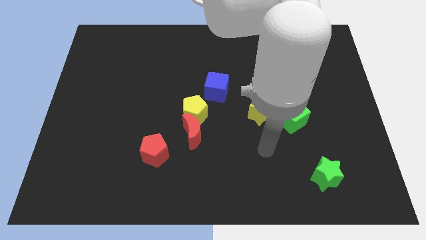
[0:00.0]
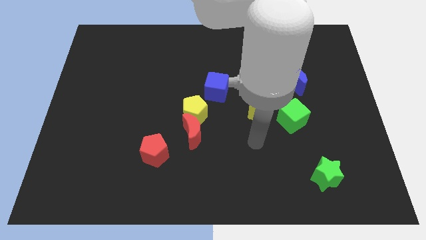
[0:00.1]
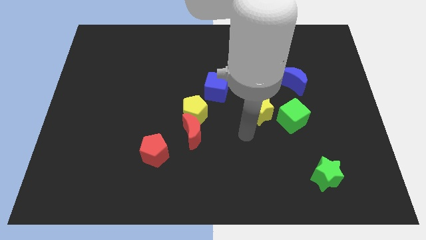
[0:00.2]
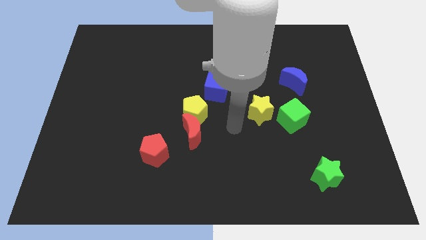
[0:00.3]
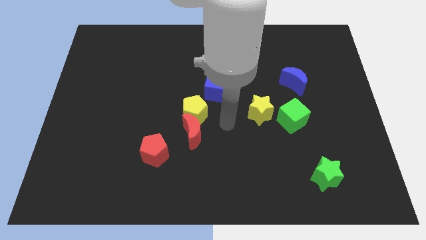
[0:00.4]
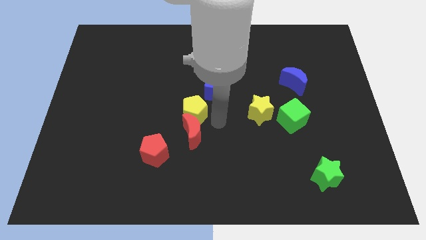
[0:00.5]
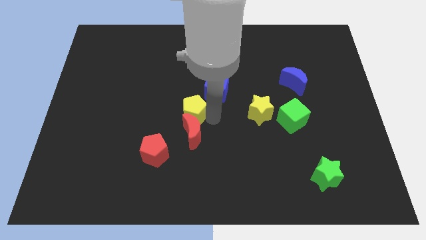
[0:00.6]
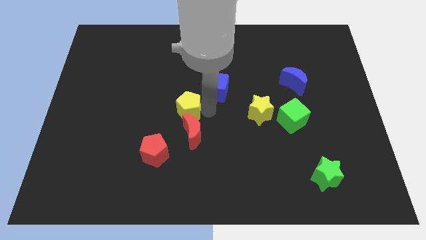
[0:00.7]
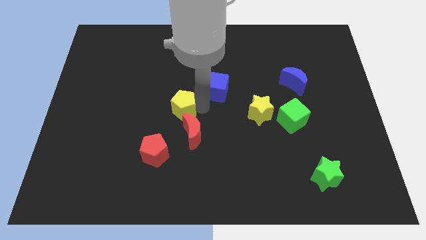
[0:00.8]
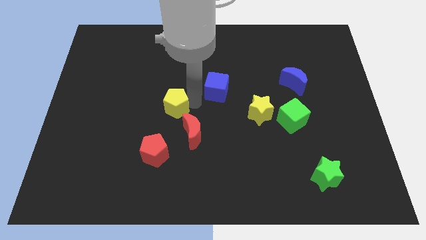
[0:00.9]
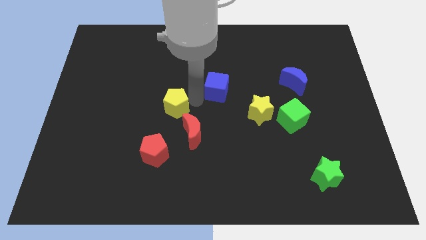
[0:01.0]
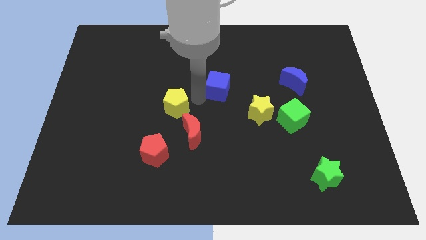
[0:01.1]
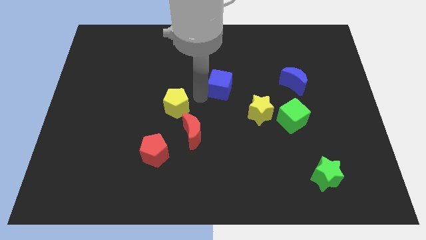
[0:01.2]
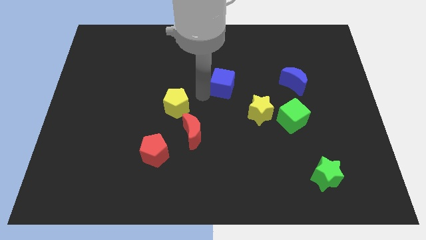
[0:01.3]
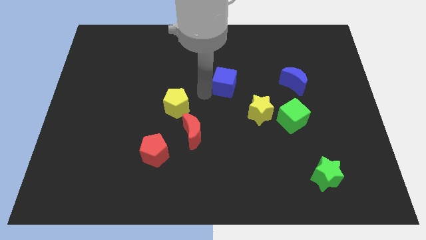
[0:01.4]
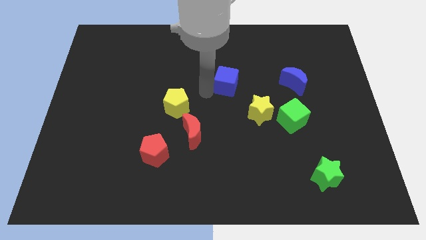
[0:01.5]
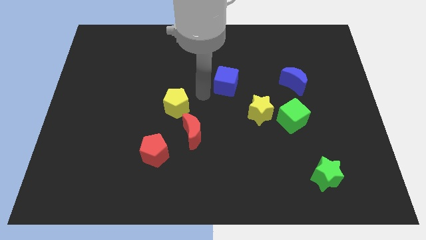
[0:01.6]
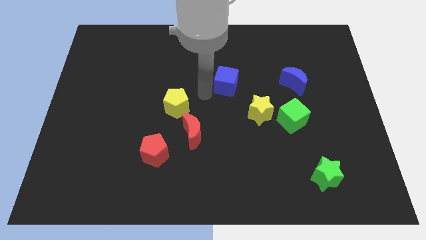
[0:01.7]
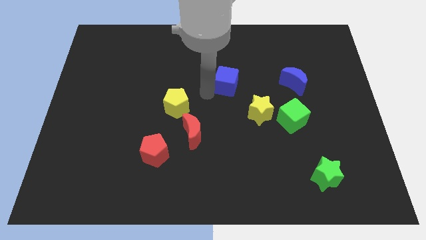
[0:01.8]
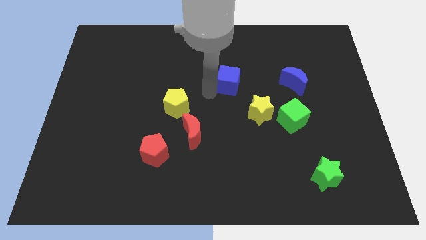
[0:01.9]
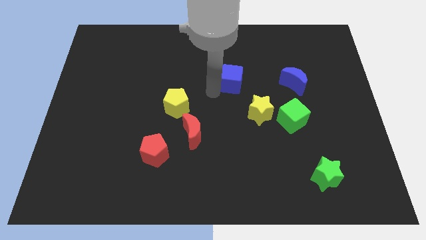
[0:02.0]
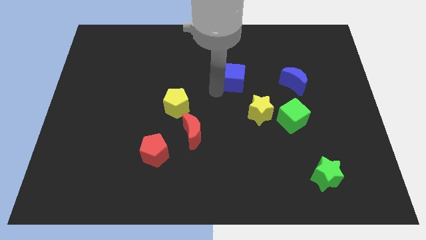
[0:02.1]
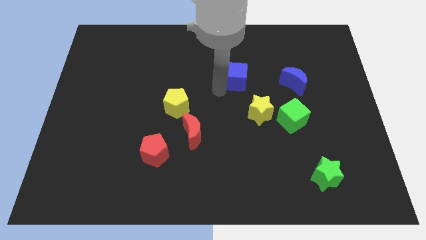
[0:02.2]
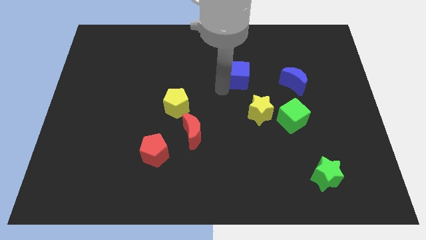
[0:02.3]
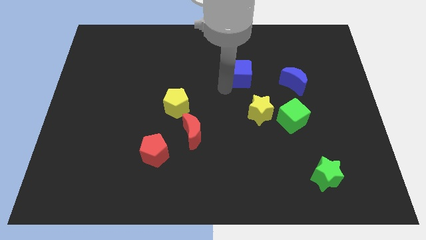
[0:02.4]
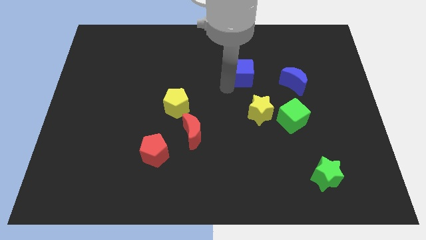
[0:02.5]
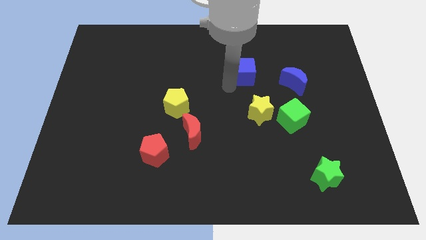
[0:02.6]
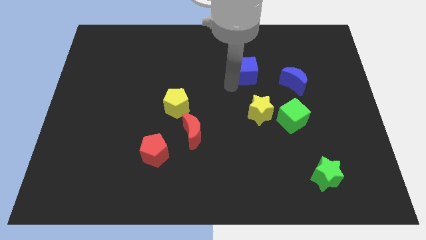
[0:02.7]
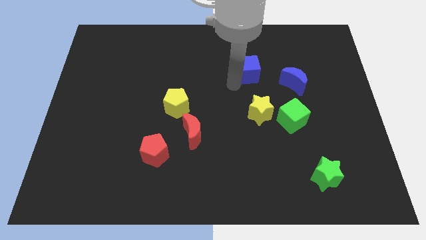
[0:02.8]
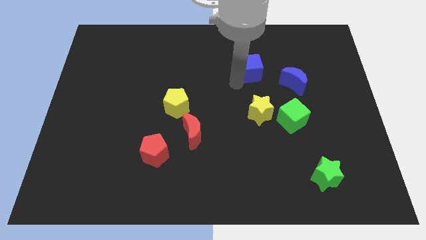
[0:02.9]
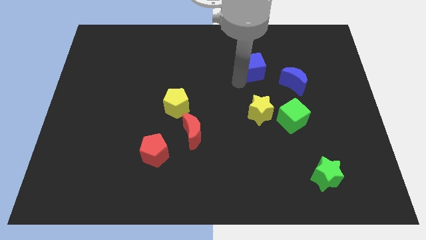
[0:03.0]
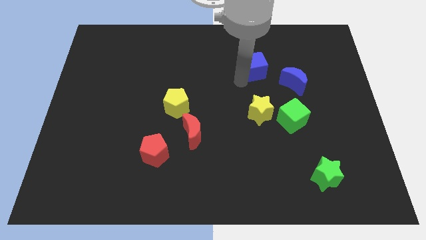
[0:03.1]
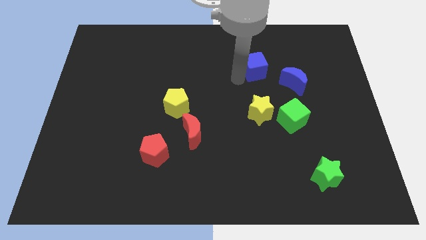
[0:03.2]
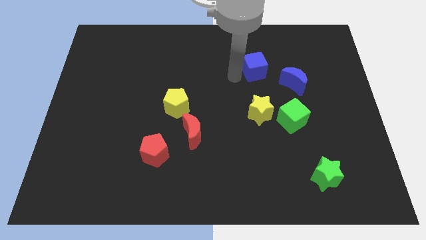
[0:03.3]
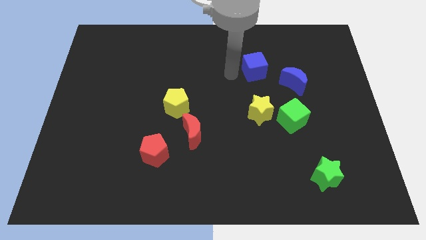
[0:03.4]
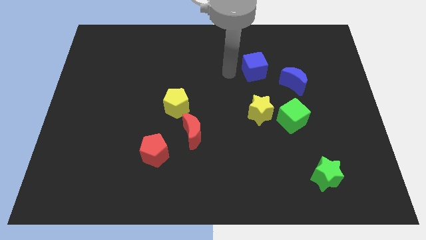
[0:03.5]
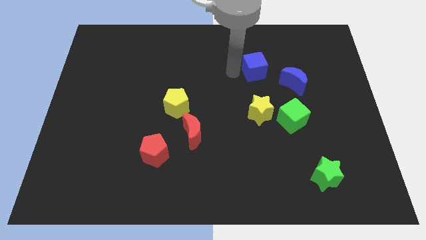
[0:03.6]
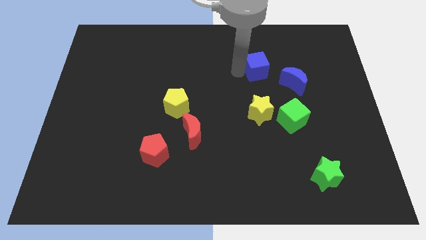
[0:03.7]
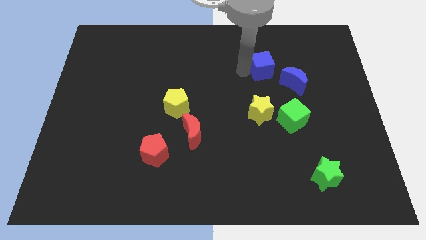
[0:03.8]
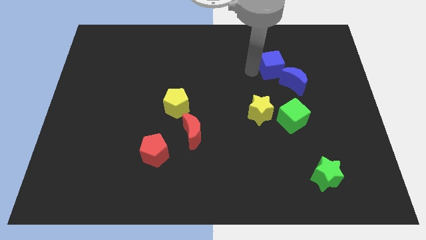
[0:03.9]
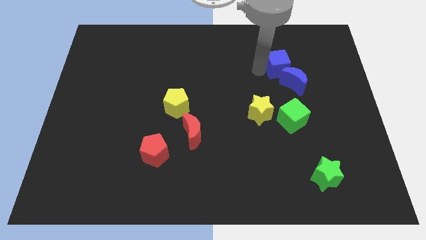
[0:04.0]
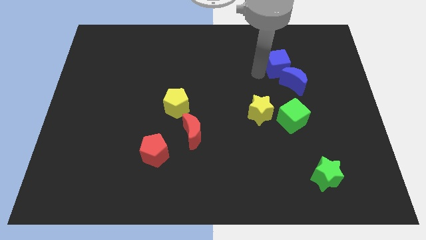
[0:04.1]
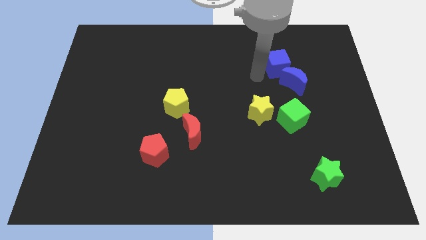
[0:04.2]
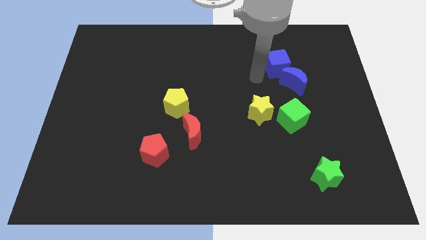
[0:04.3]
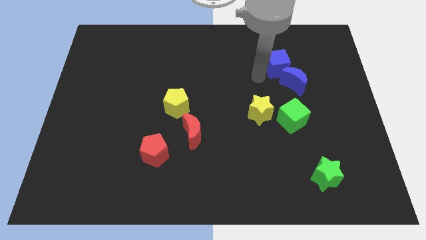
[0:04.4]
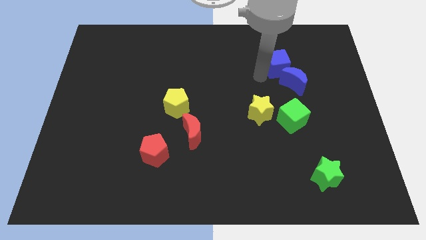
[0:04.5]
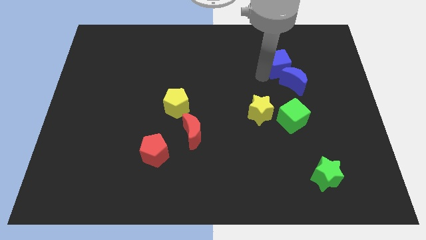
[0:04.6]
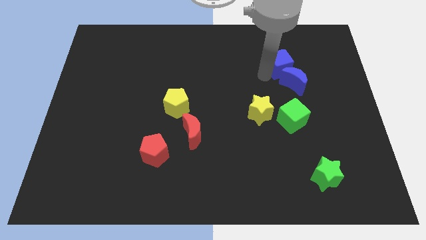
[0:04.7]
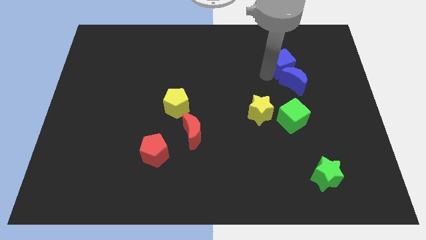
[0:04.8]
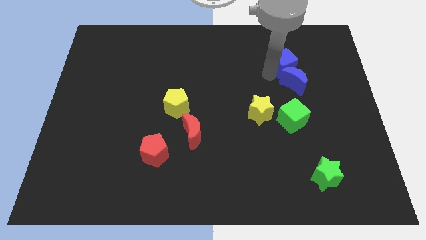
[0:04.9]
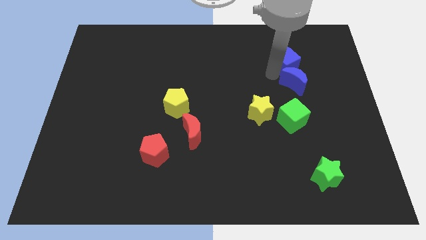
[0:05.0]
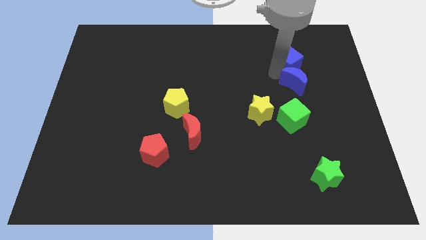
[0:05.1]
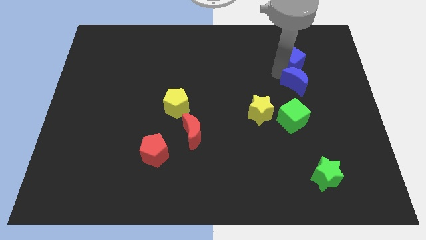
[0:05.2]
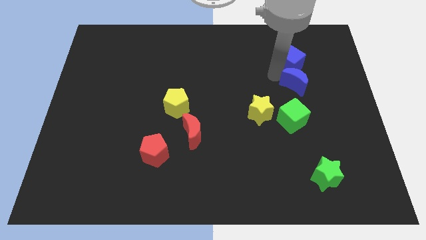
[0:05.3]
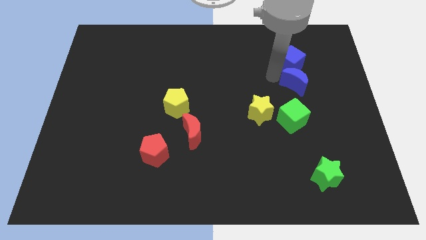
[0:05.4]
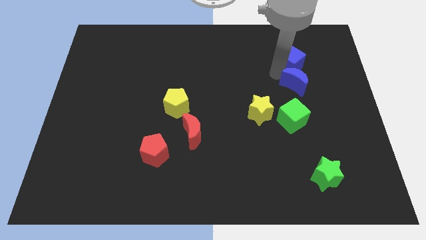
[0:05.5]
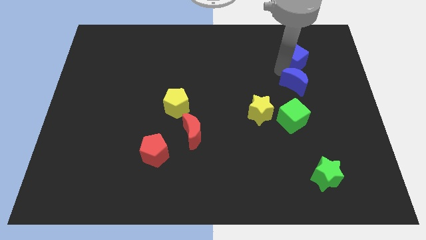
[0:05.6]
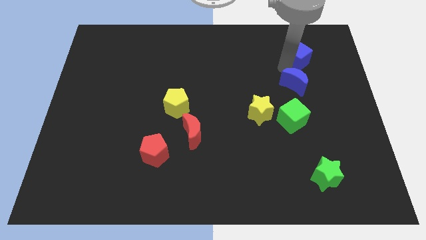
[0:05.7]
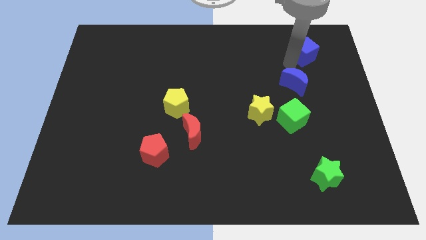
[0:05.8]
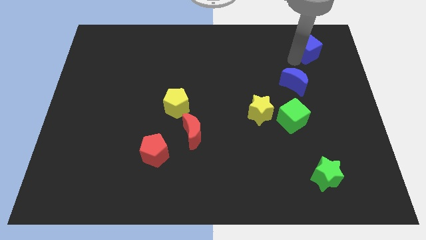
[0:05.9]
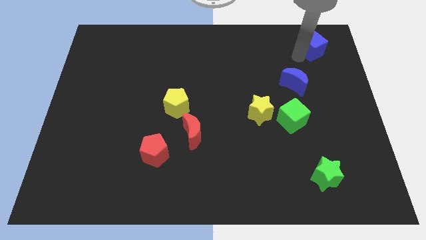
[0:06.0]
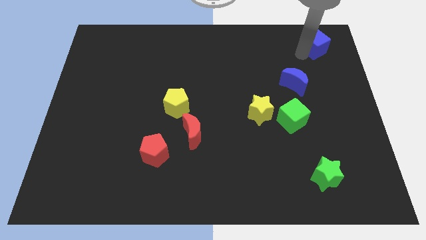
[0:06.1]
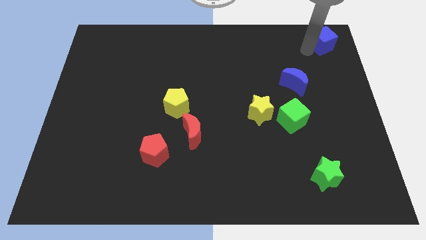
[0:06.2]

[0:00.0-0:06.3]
slide the blue cube to the top right corner
